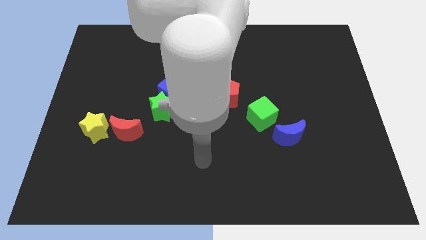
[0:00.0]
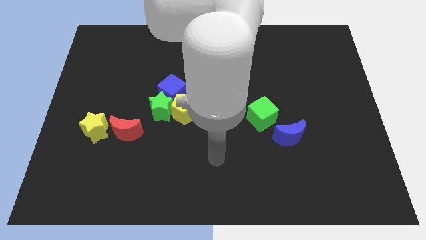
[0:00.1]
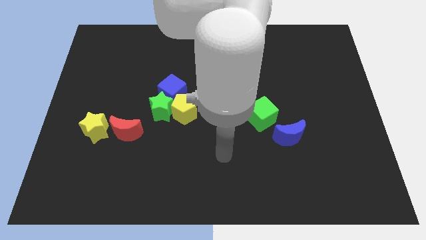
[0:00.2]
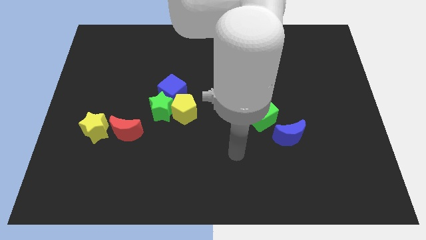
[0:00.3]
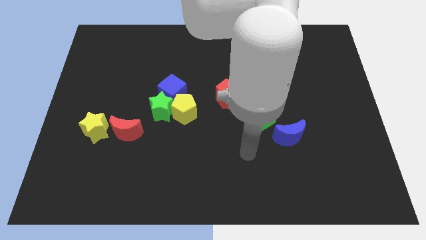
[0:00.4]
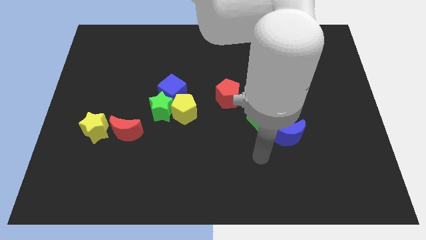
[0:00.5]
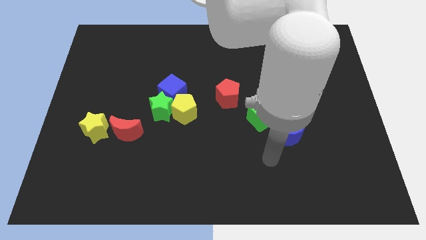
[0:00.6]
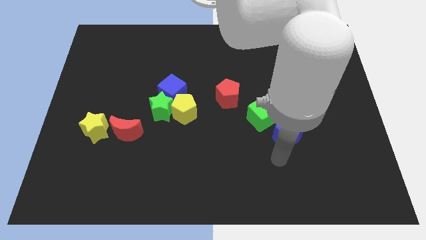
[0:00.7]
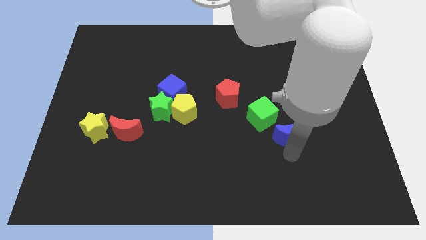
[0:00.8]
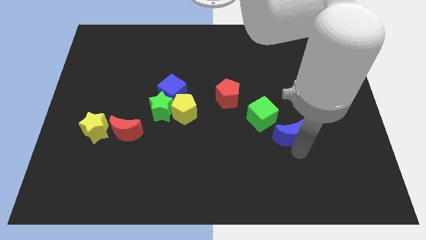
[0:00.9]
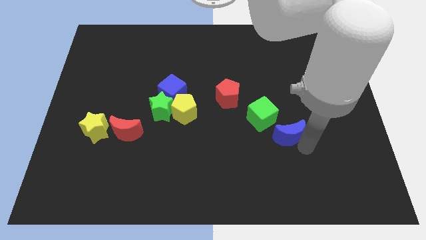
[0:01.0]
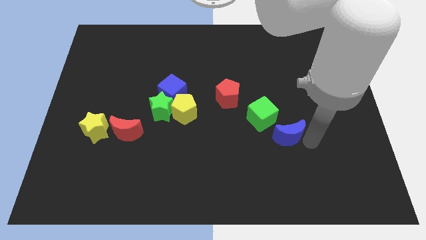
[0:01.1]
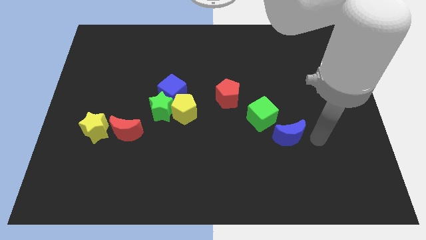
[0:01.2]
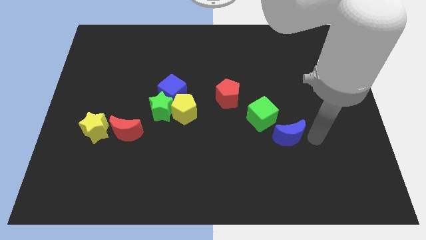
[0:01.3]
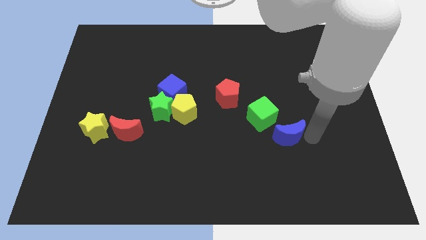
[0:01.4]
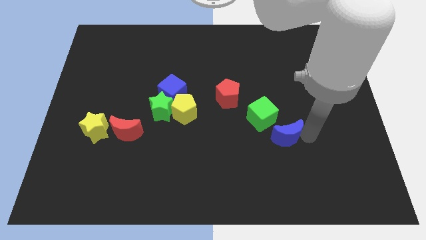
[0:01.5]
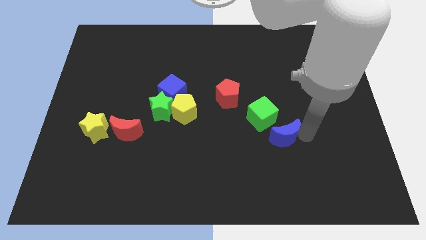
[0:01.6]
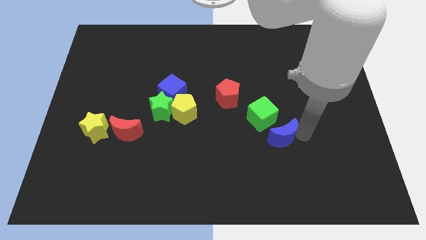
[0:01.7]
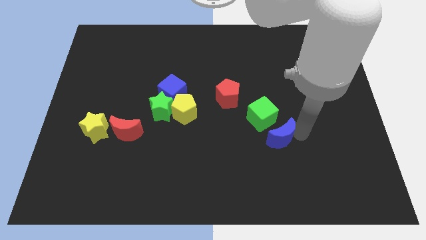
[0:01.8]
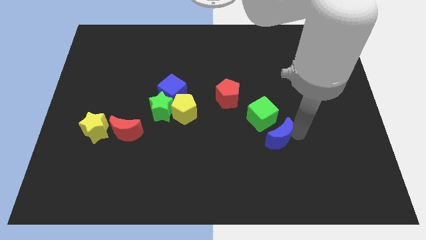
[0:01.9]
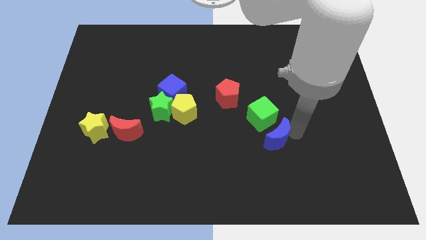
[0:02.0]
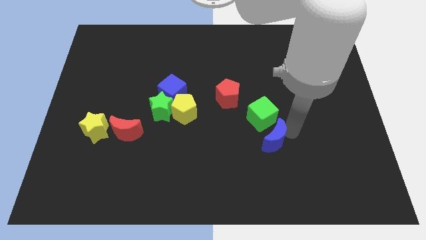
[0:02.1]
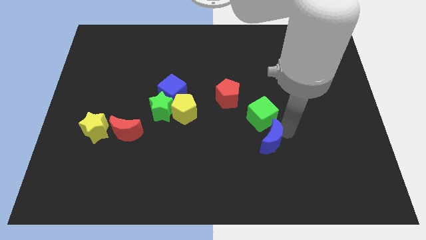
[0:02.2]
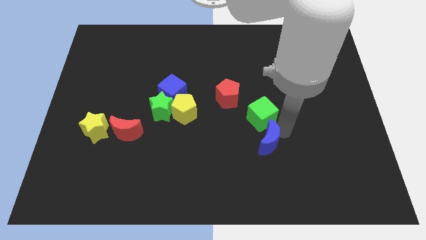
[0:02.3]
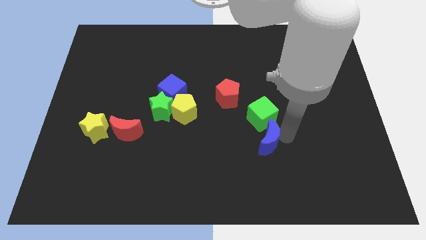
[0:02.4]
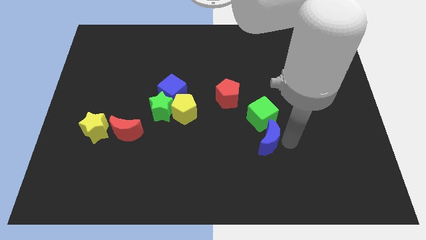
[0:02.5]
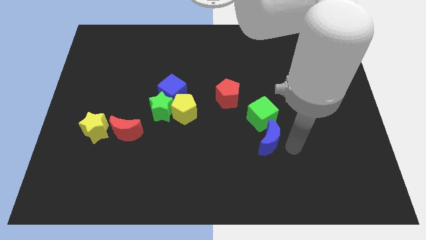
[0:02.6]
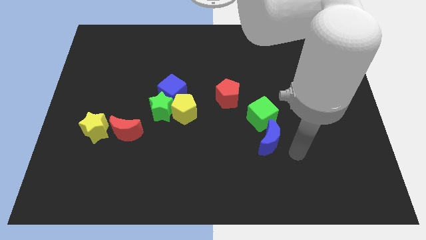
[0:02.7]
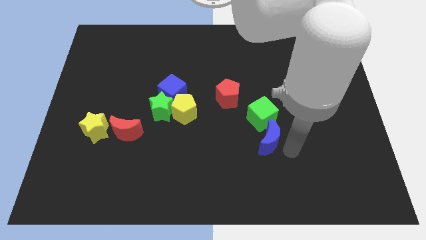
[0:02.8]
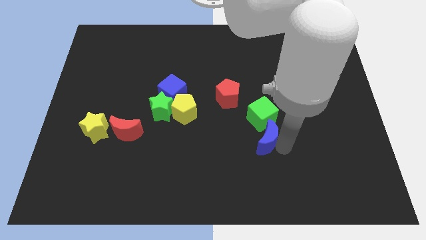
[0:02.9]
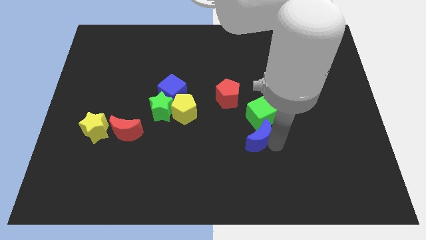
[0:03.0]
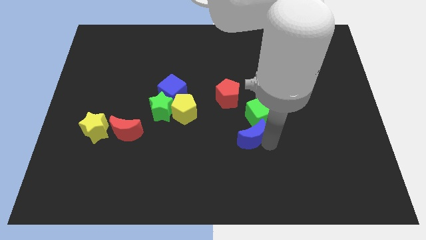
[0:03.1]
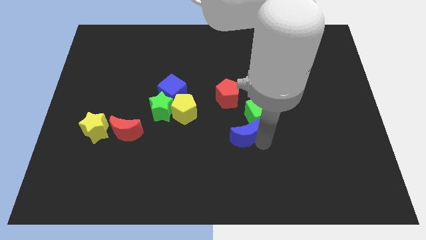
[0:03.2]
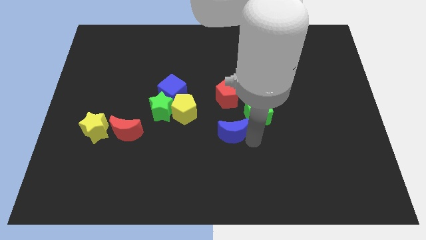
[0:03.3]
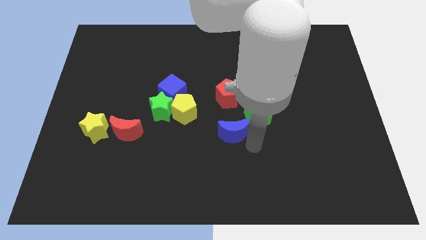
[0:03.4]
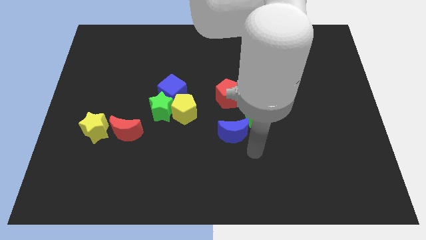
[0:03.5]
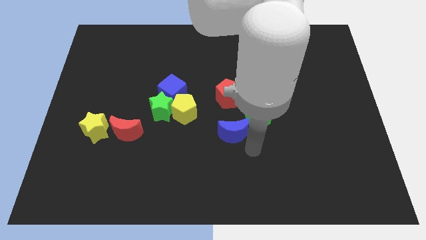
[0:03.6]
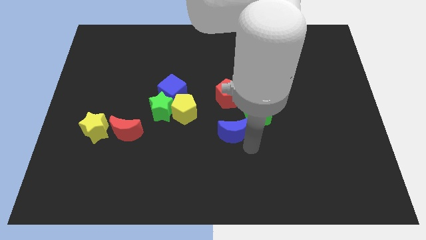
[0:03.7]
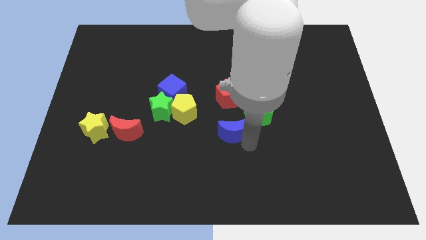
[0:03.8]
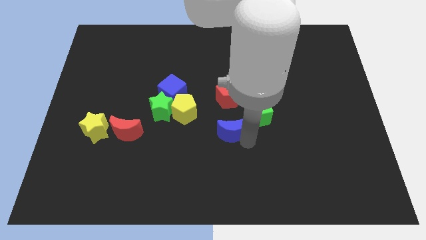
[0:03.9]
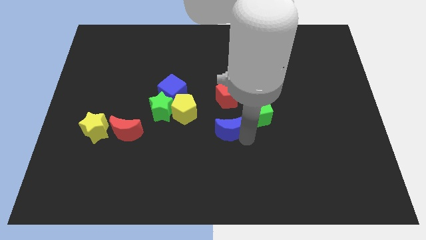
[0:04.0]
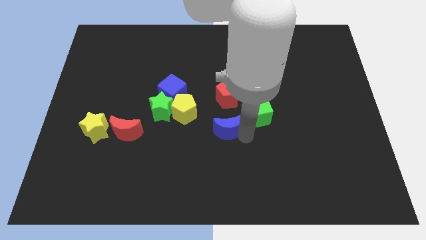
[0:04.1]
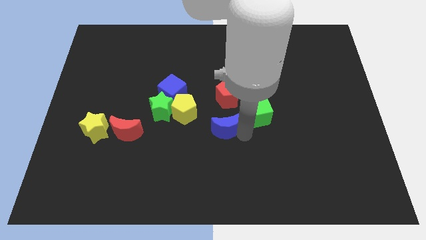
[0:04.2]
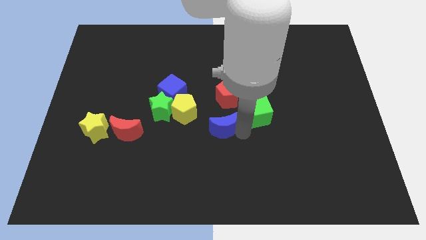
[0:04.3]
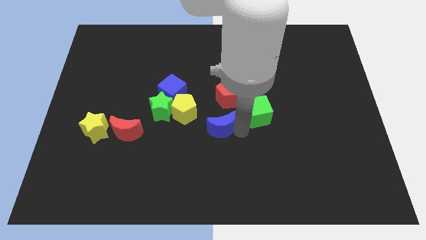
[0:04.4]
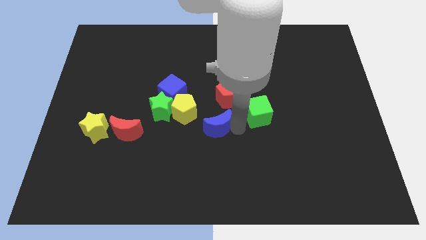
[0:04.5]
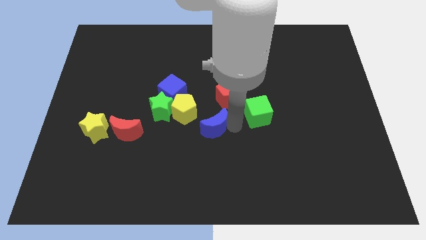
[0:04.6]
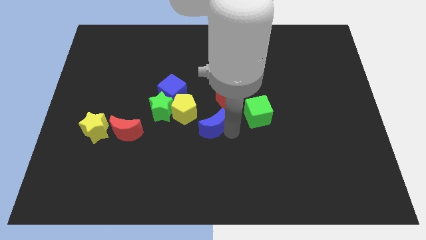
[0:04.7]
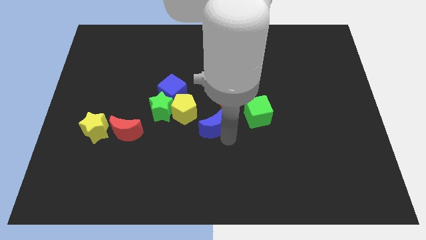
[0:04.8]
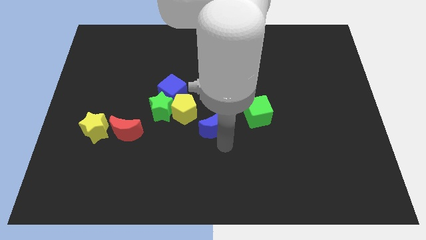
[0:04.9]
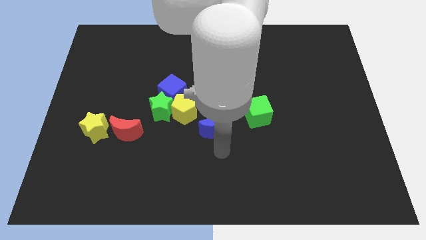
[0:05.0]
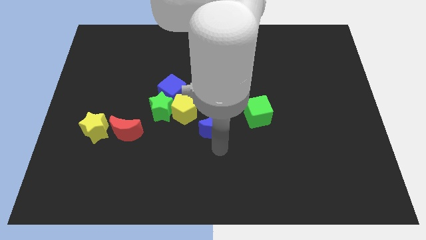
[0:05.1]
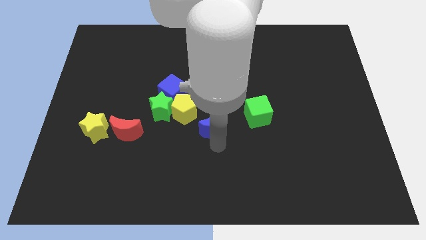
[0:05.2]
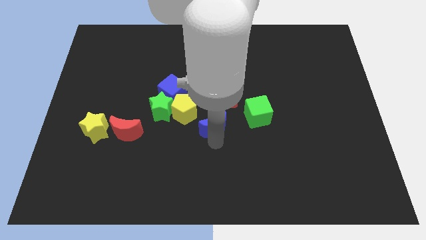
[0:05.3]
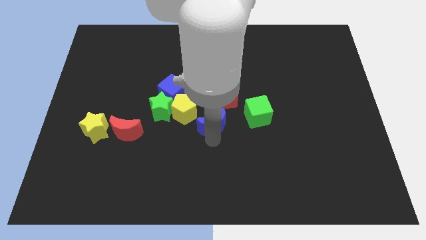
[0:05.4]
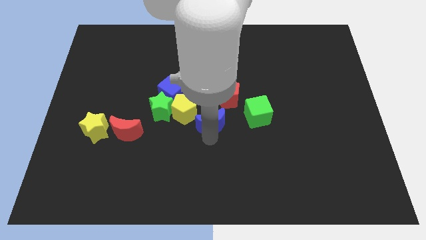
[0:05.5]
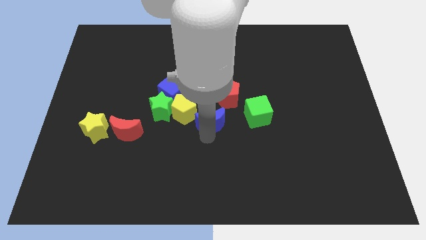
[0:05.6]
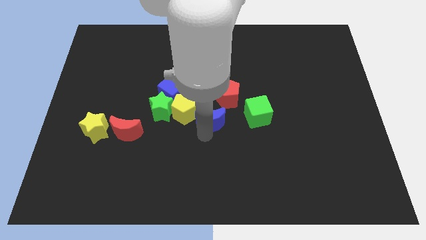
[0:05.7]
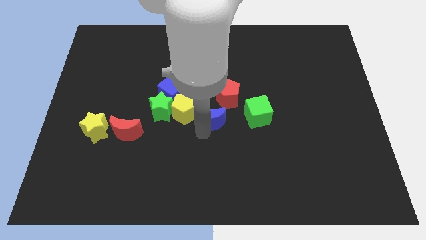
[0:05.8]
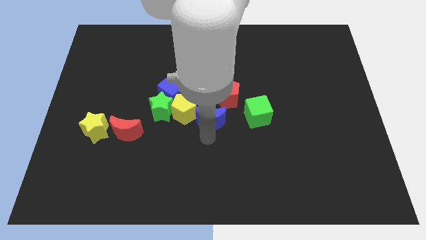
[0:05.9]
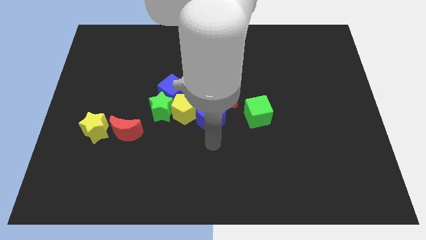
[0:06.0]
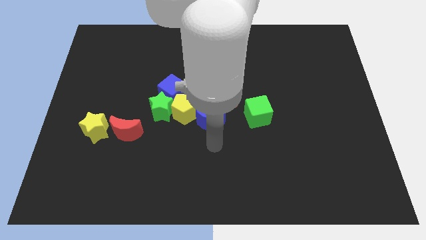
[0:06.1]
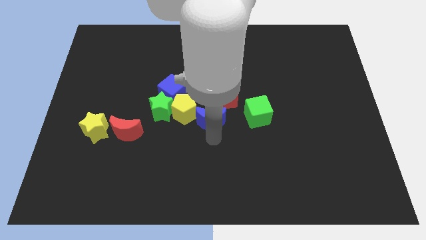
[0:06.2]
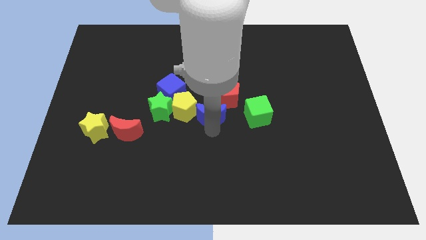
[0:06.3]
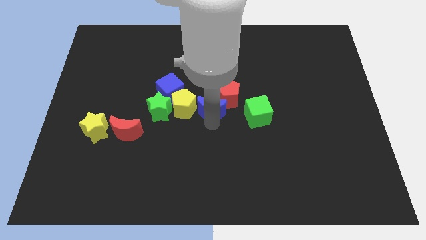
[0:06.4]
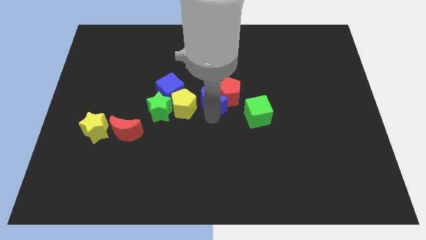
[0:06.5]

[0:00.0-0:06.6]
push the blue moon diagonally up and to the right of the yellow pentagon
